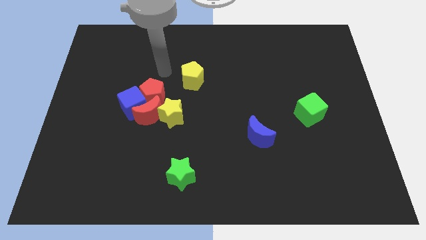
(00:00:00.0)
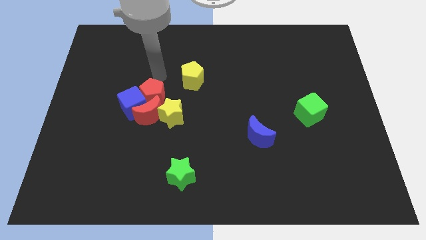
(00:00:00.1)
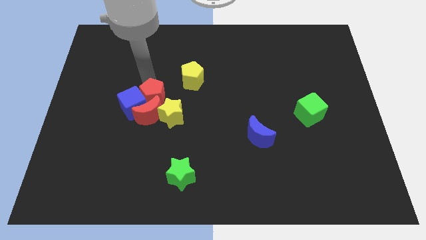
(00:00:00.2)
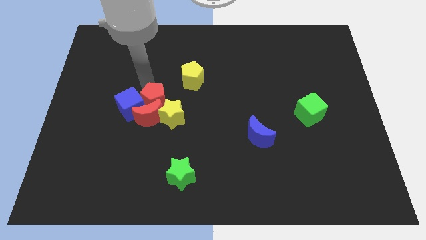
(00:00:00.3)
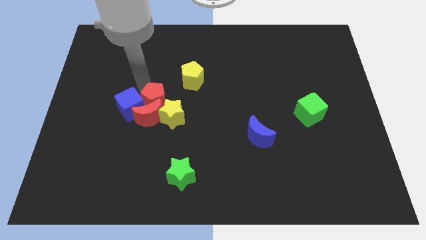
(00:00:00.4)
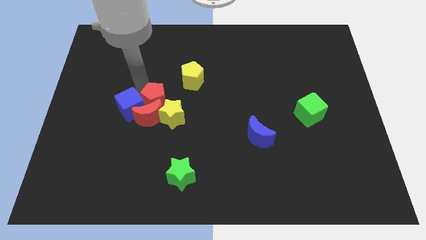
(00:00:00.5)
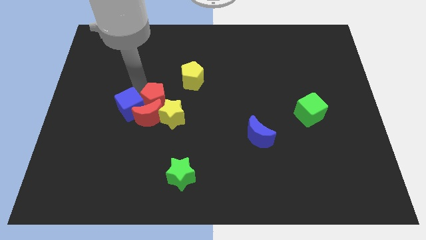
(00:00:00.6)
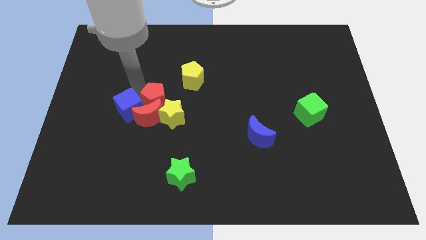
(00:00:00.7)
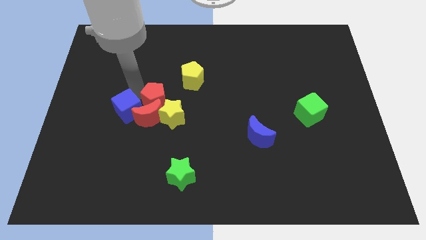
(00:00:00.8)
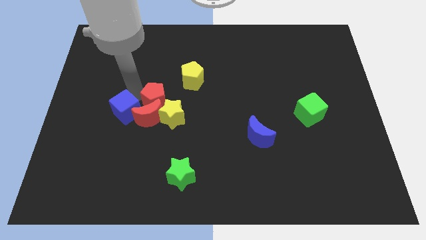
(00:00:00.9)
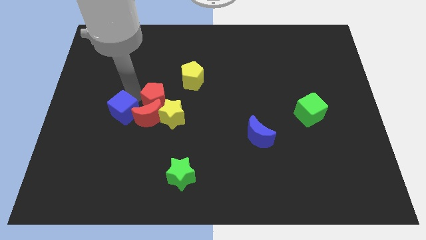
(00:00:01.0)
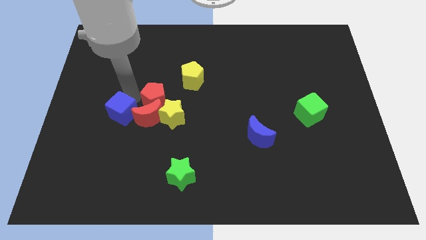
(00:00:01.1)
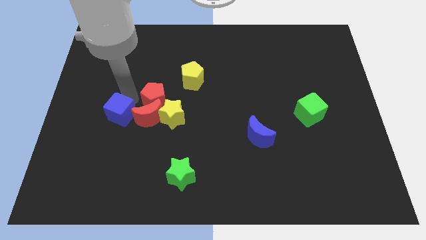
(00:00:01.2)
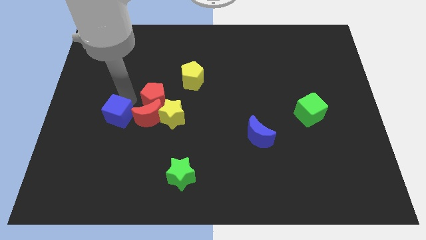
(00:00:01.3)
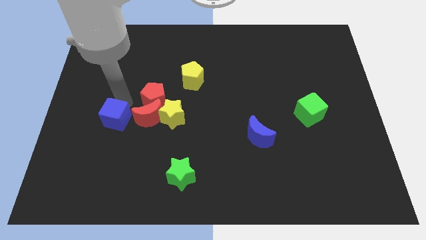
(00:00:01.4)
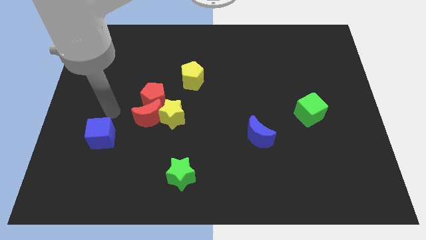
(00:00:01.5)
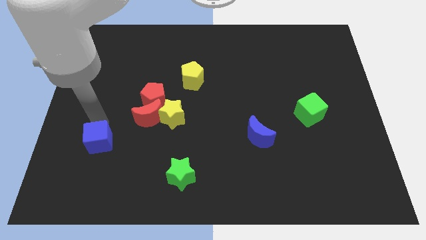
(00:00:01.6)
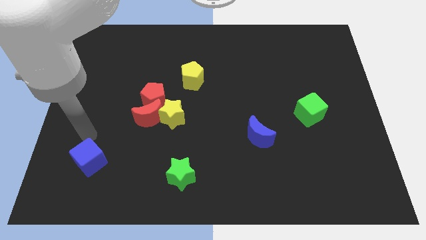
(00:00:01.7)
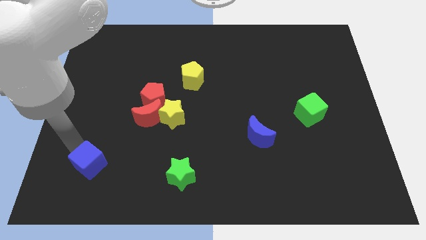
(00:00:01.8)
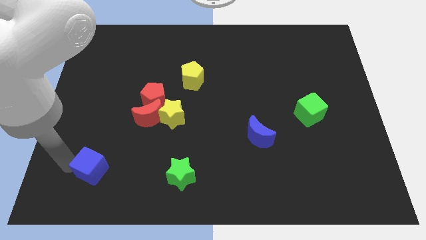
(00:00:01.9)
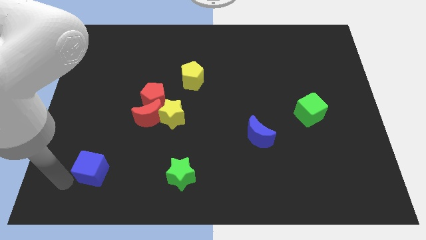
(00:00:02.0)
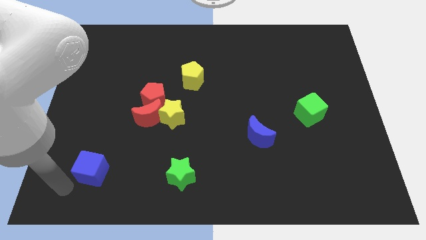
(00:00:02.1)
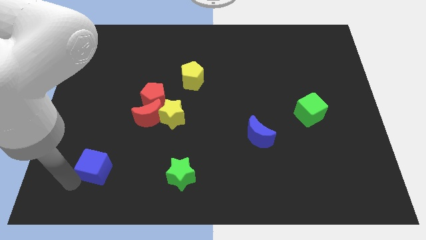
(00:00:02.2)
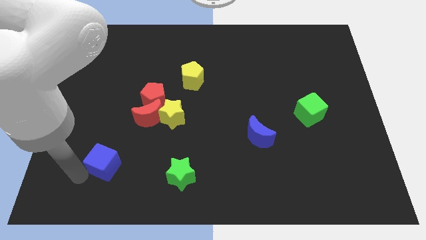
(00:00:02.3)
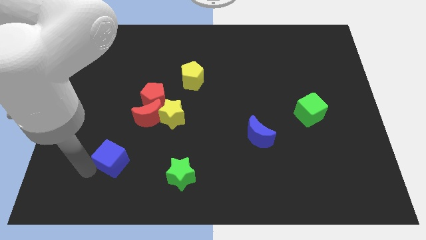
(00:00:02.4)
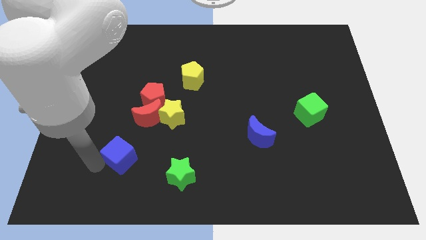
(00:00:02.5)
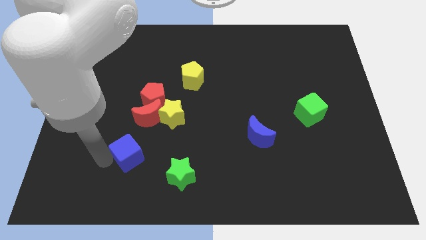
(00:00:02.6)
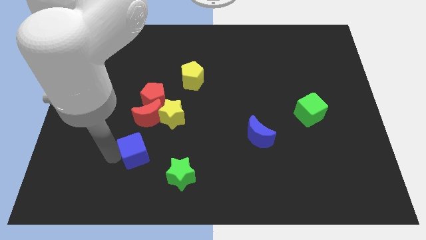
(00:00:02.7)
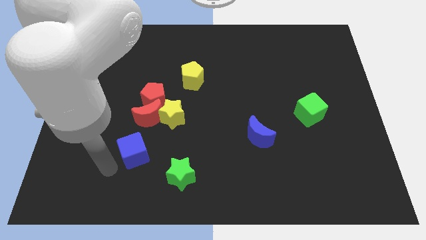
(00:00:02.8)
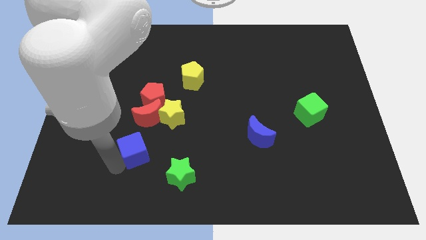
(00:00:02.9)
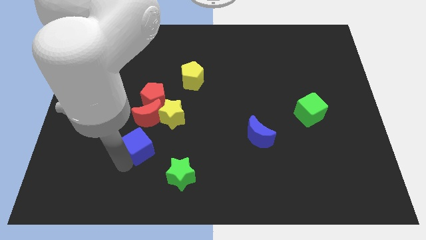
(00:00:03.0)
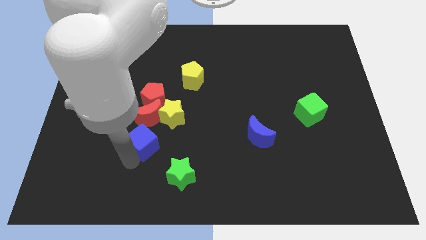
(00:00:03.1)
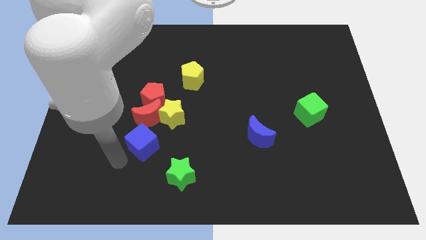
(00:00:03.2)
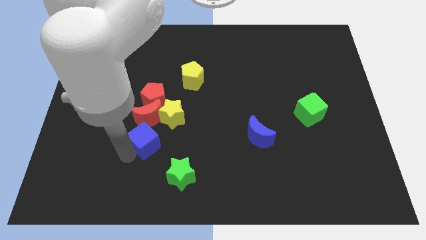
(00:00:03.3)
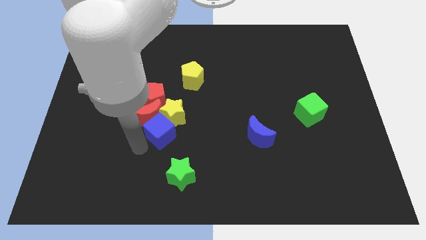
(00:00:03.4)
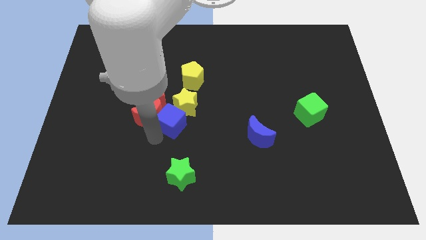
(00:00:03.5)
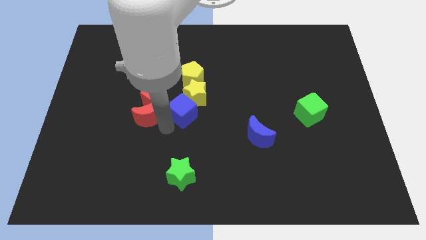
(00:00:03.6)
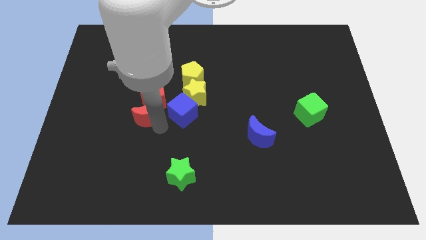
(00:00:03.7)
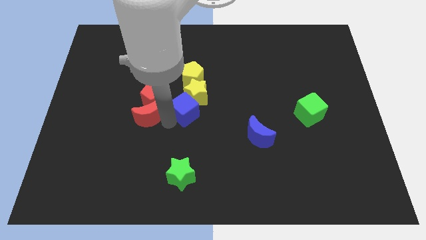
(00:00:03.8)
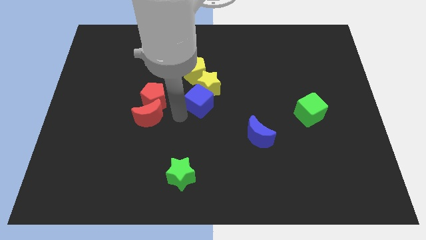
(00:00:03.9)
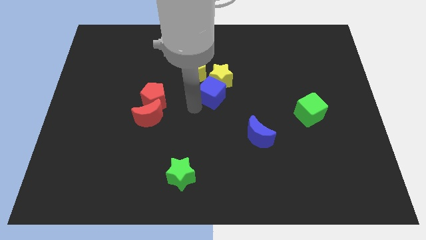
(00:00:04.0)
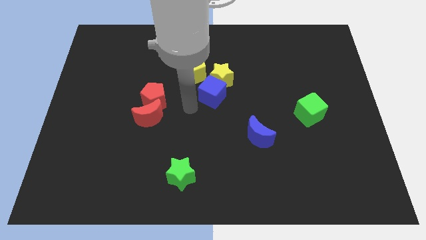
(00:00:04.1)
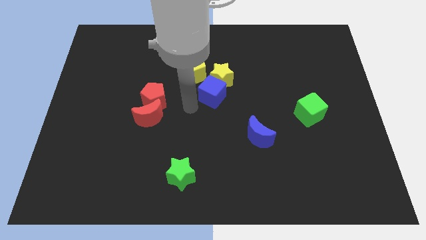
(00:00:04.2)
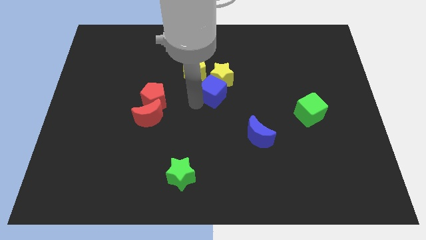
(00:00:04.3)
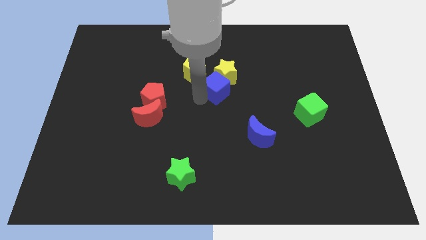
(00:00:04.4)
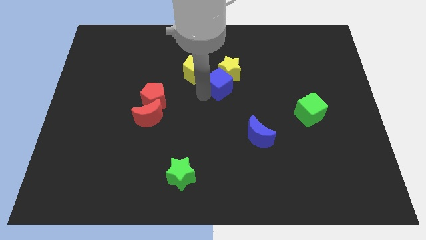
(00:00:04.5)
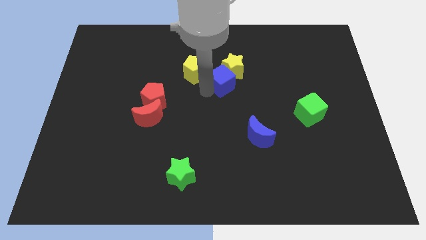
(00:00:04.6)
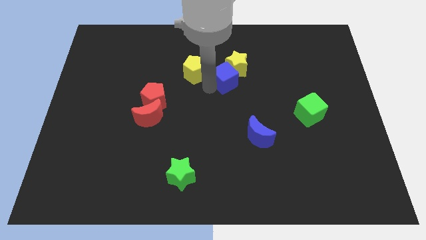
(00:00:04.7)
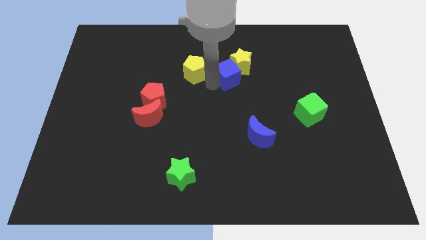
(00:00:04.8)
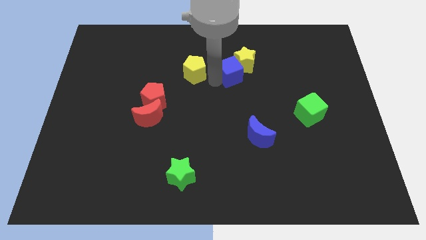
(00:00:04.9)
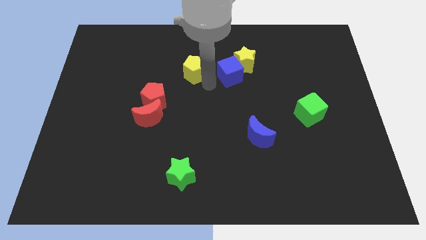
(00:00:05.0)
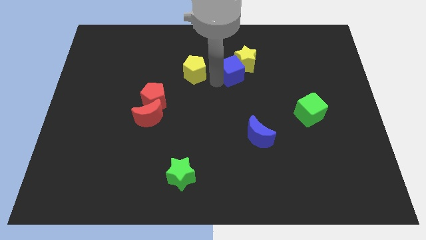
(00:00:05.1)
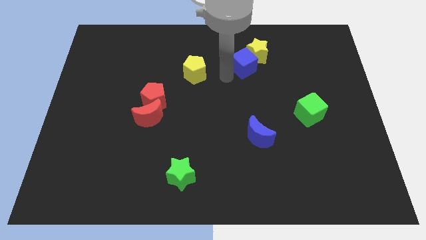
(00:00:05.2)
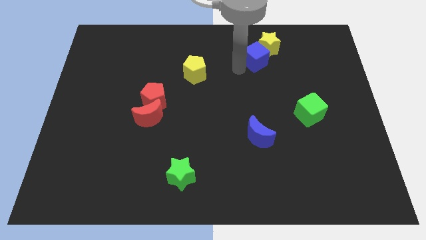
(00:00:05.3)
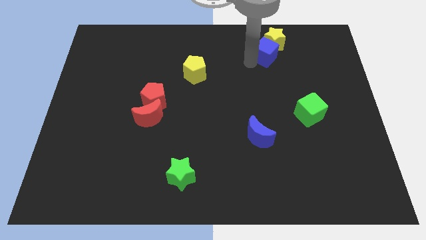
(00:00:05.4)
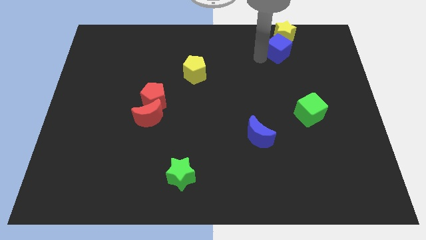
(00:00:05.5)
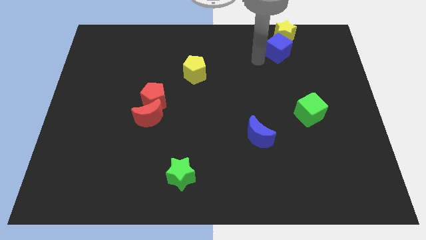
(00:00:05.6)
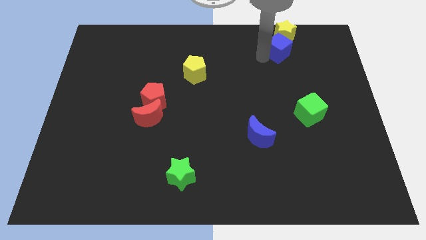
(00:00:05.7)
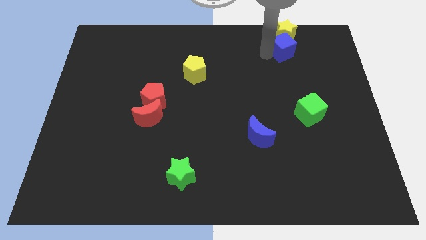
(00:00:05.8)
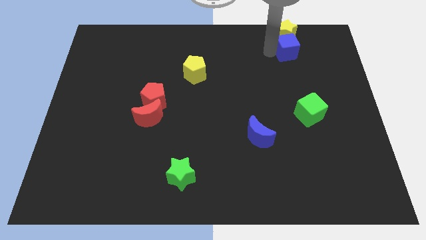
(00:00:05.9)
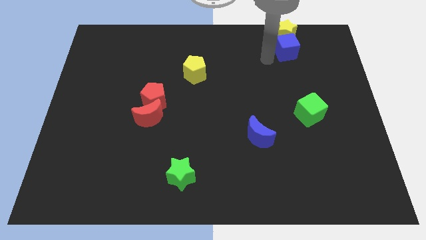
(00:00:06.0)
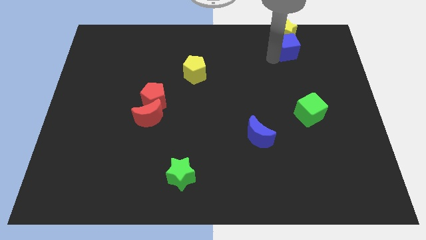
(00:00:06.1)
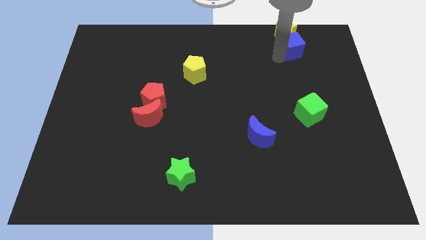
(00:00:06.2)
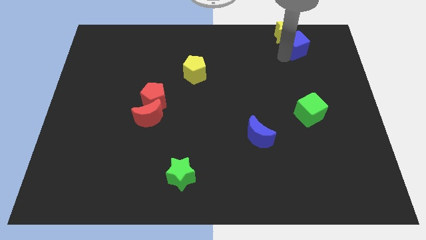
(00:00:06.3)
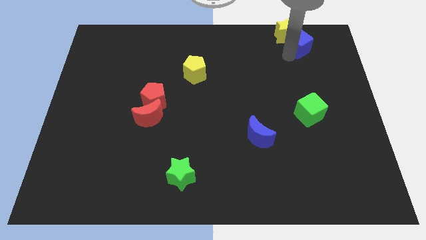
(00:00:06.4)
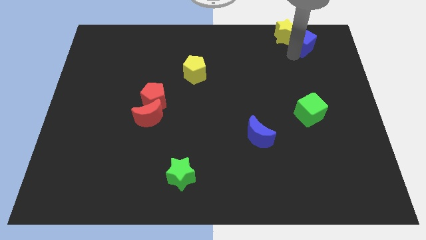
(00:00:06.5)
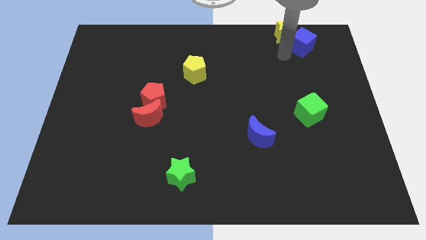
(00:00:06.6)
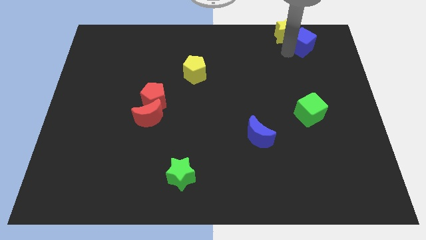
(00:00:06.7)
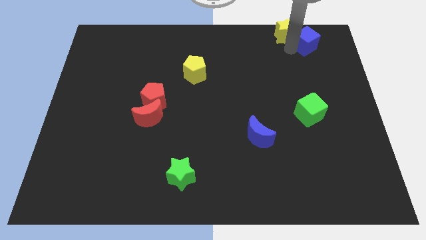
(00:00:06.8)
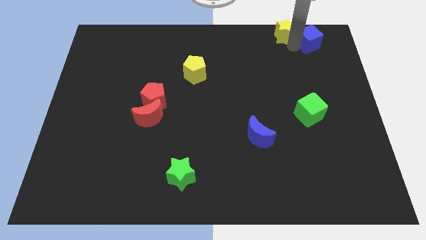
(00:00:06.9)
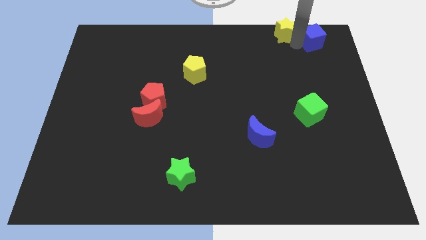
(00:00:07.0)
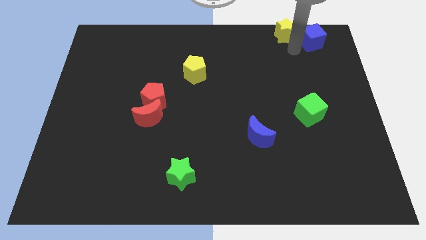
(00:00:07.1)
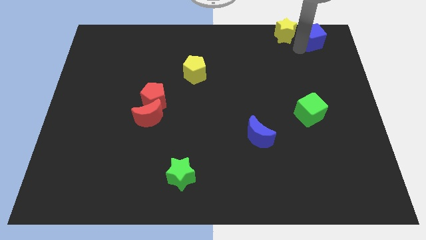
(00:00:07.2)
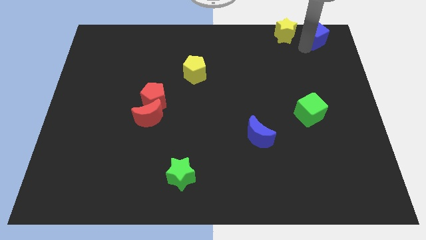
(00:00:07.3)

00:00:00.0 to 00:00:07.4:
move the blue cube to the top right

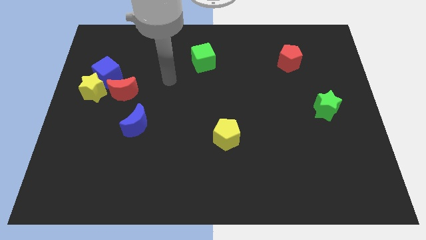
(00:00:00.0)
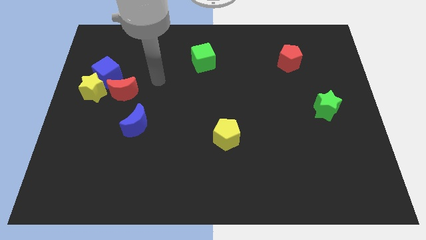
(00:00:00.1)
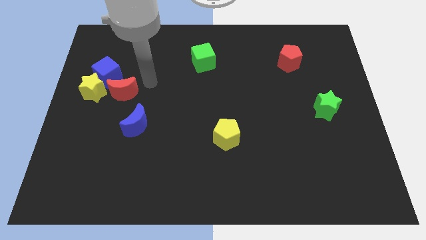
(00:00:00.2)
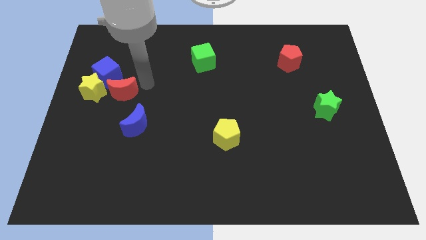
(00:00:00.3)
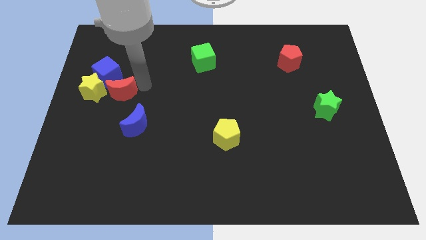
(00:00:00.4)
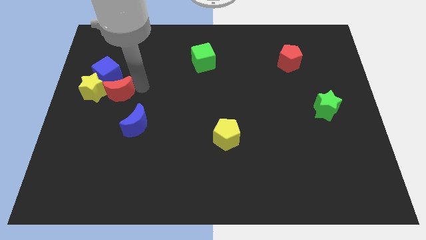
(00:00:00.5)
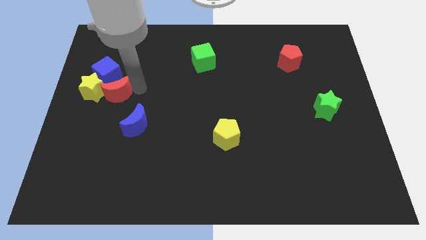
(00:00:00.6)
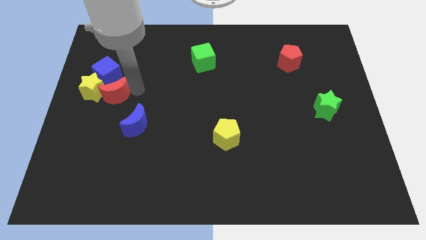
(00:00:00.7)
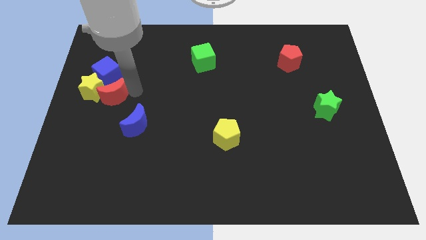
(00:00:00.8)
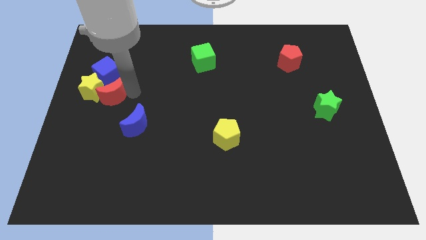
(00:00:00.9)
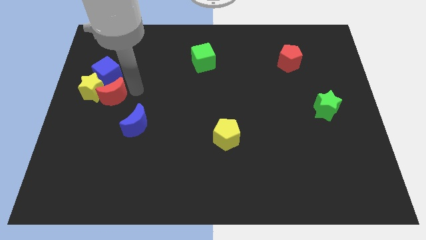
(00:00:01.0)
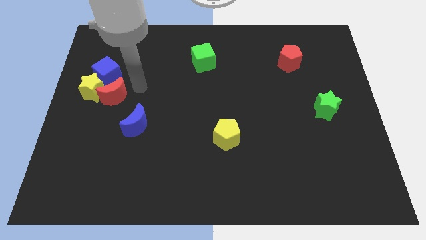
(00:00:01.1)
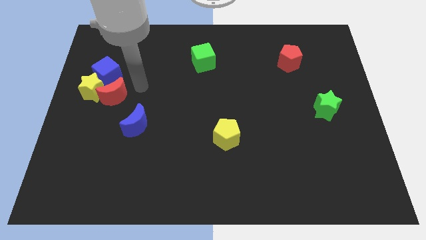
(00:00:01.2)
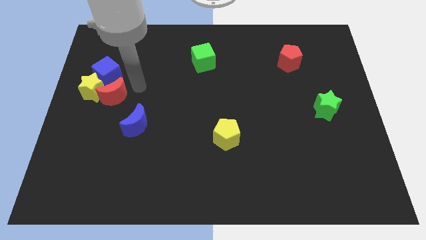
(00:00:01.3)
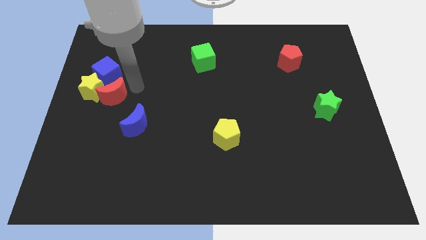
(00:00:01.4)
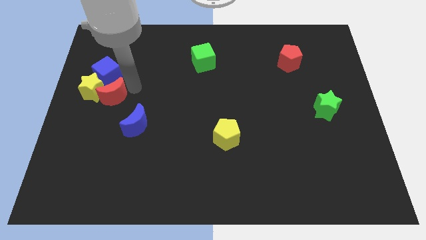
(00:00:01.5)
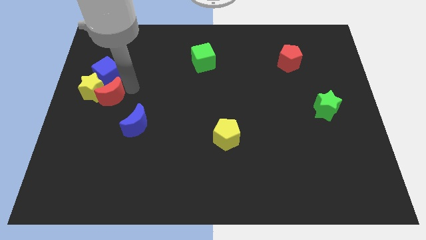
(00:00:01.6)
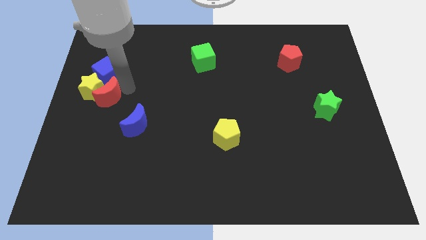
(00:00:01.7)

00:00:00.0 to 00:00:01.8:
move the red moon to the left side of the board
